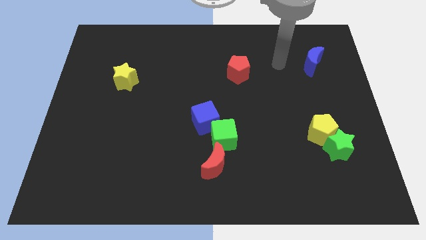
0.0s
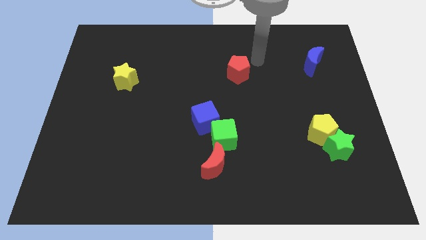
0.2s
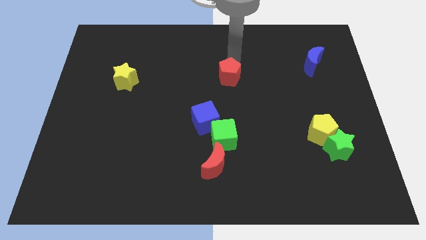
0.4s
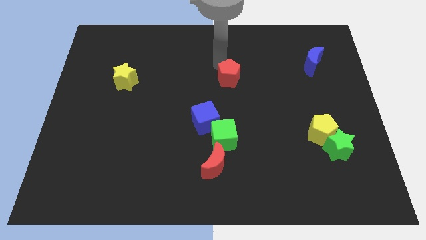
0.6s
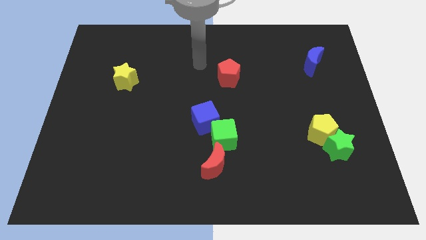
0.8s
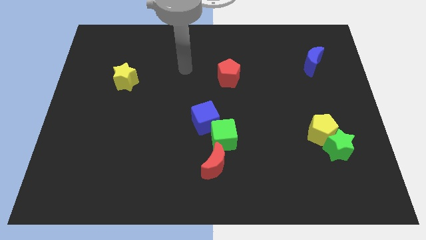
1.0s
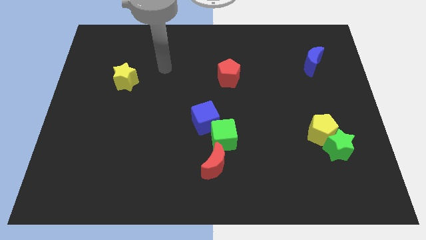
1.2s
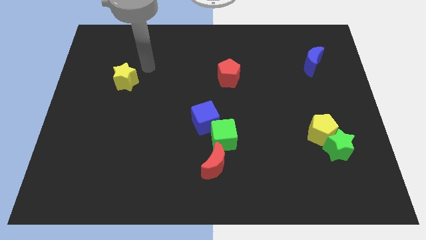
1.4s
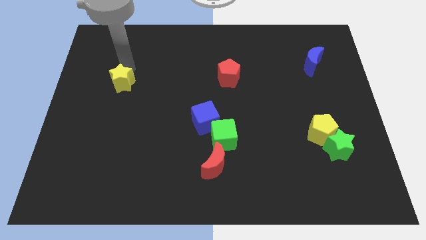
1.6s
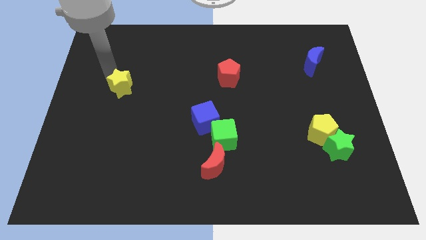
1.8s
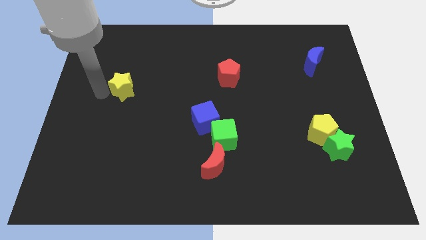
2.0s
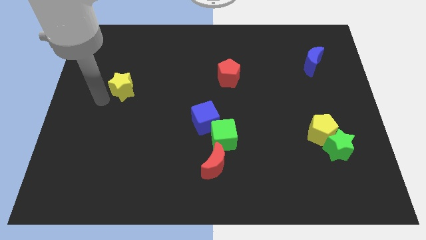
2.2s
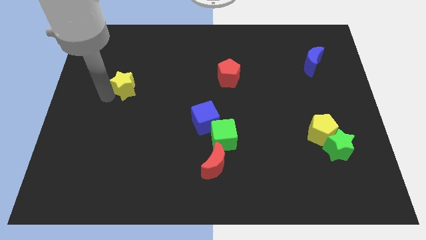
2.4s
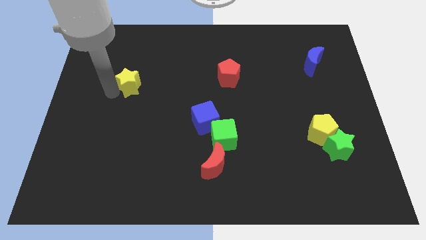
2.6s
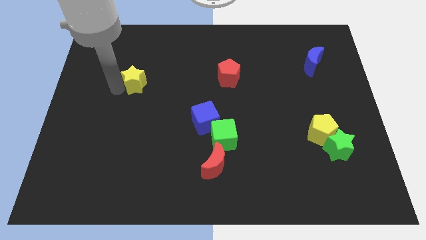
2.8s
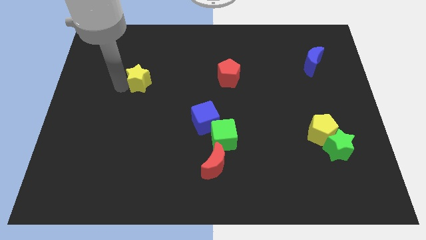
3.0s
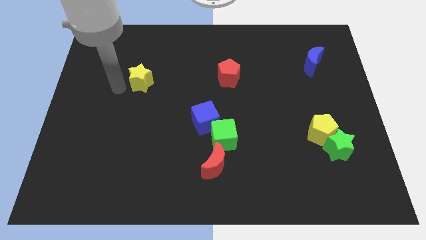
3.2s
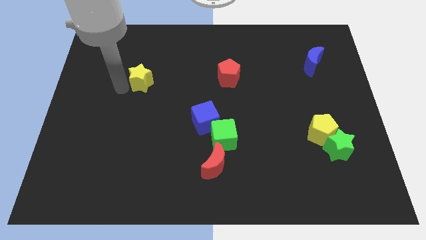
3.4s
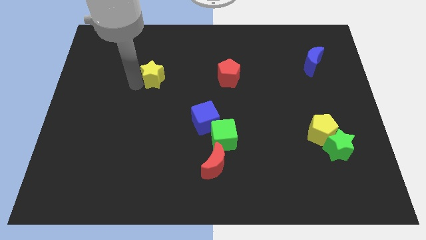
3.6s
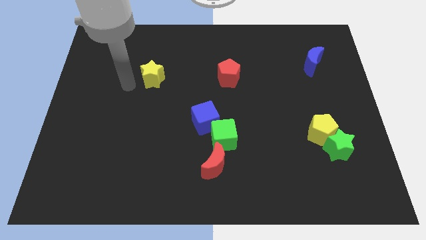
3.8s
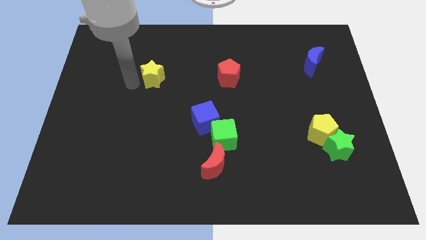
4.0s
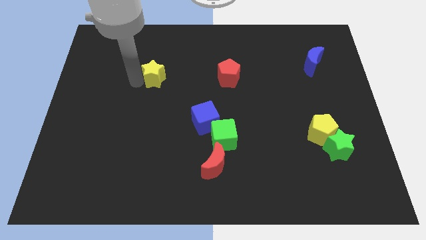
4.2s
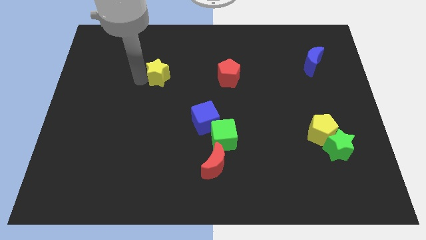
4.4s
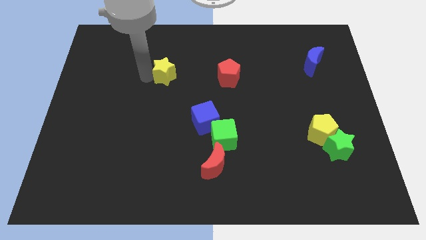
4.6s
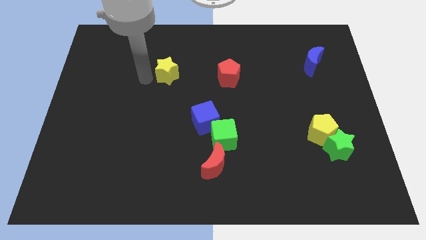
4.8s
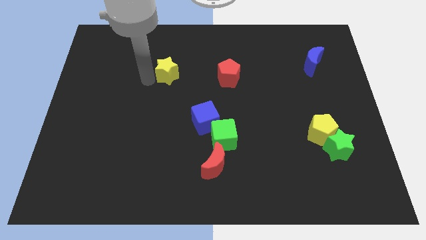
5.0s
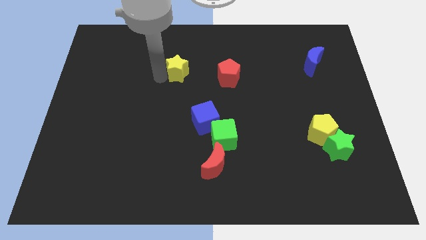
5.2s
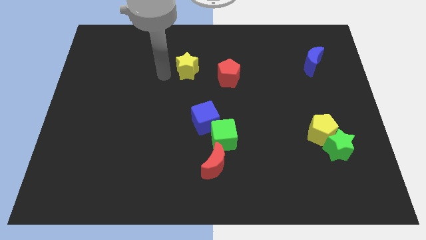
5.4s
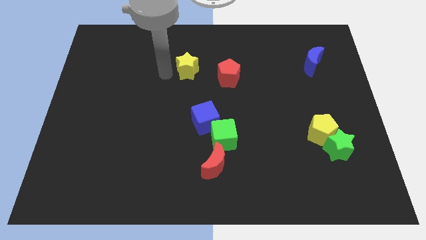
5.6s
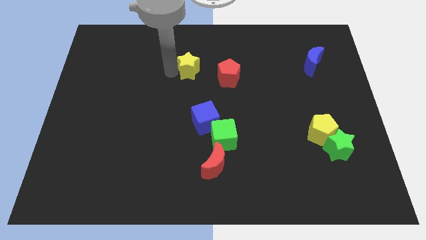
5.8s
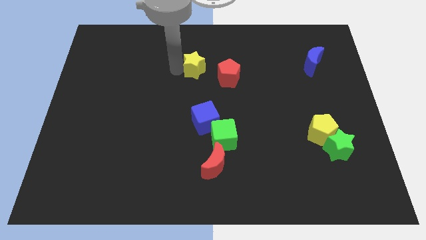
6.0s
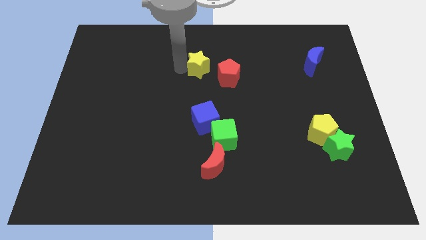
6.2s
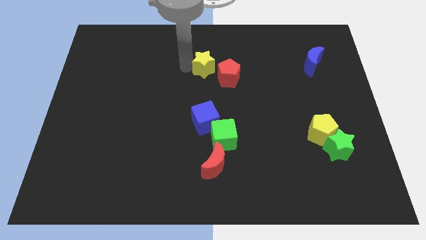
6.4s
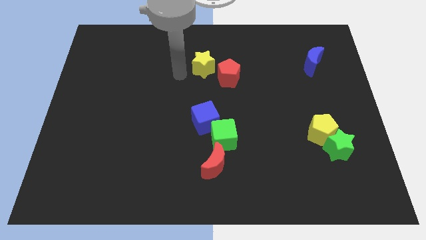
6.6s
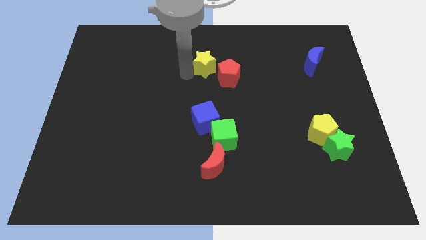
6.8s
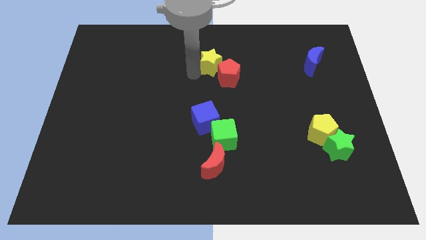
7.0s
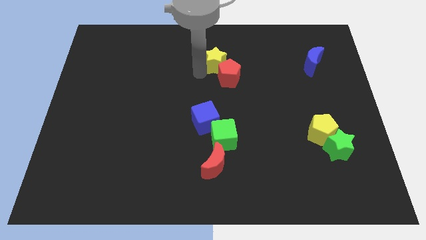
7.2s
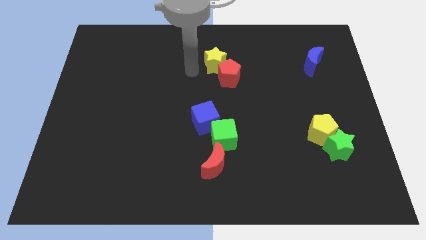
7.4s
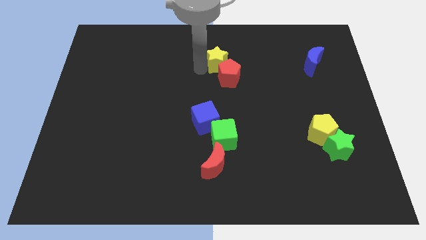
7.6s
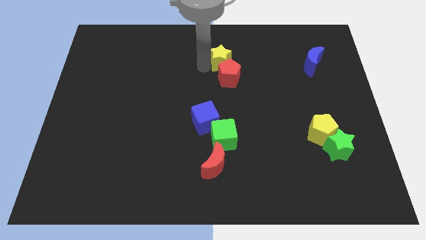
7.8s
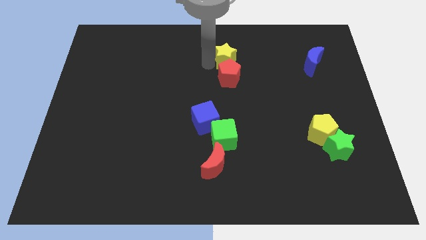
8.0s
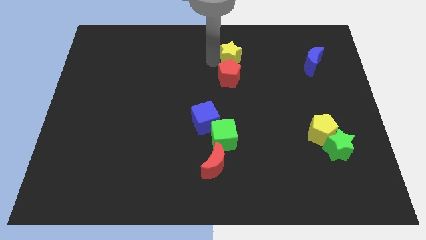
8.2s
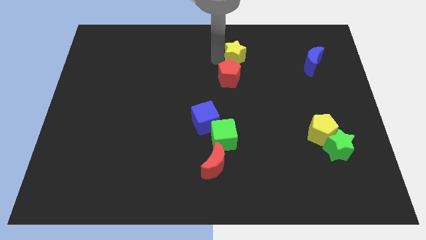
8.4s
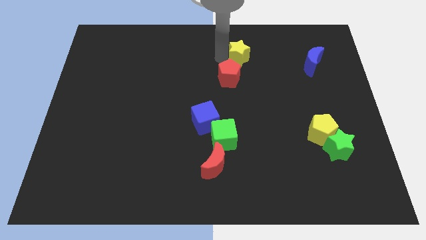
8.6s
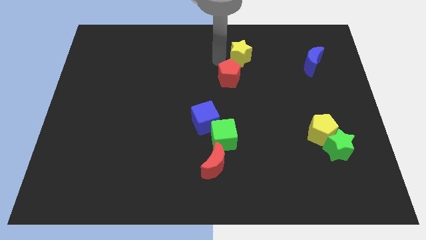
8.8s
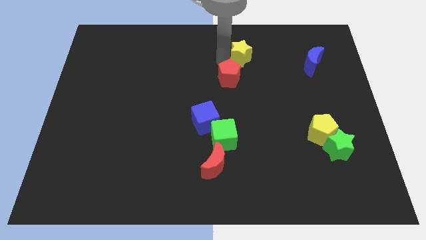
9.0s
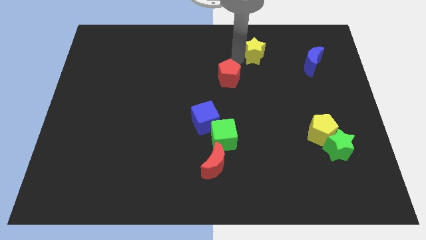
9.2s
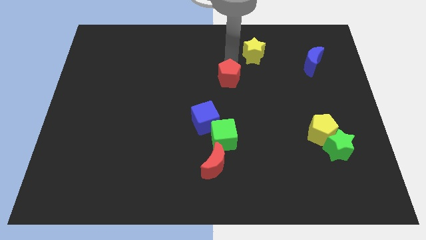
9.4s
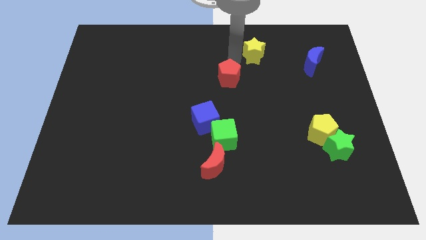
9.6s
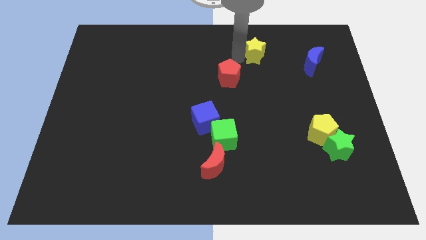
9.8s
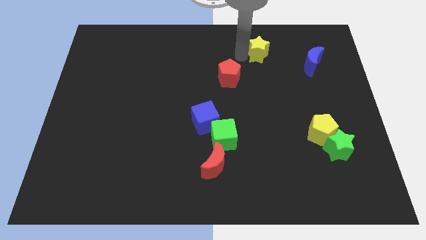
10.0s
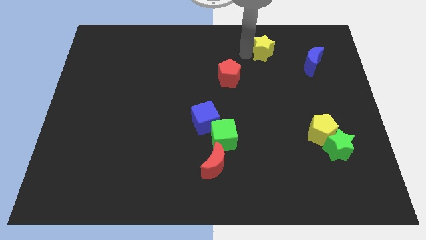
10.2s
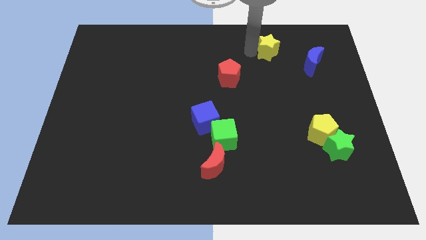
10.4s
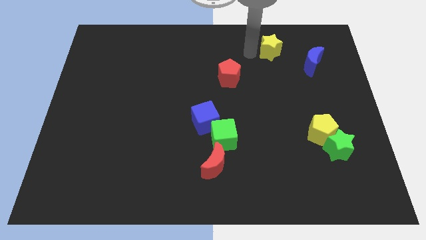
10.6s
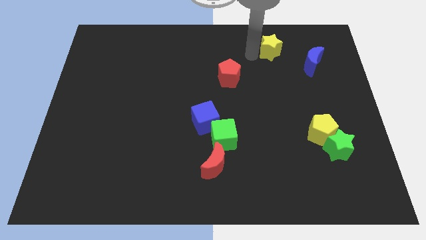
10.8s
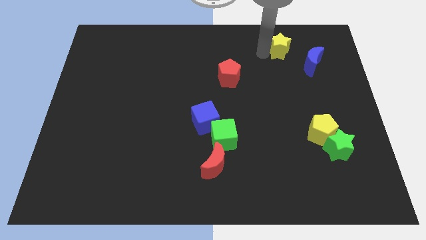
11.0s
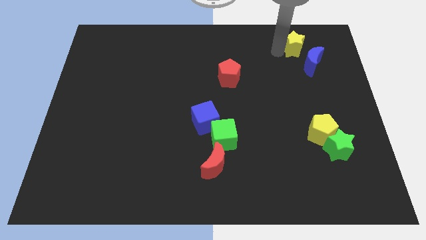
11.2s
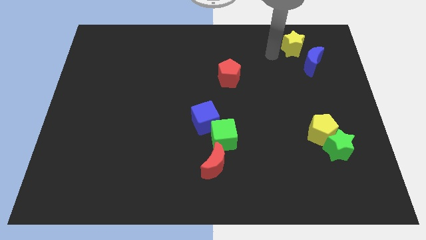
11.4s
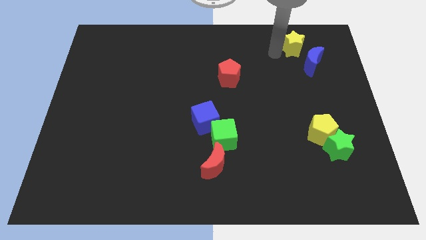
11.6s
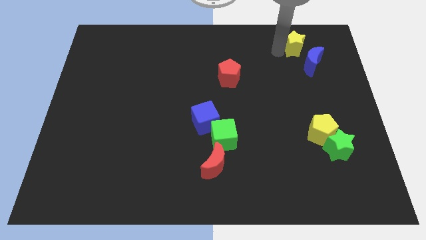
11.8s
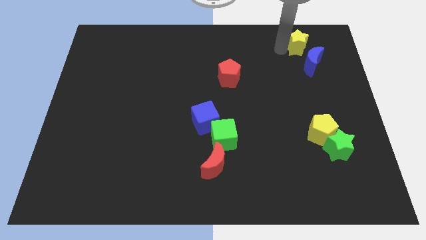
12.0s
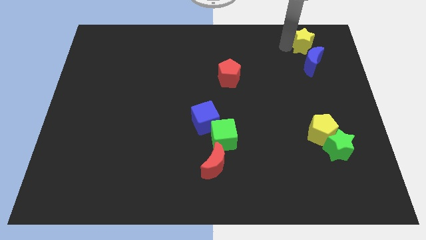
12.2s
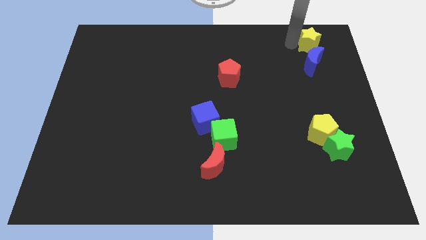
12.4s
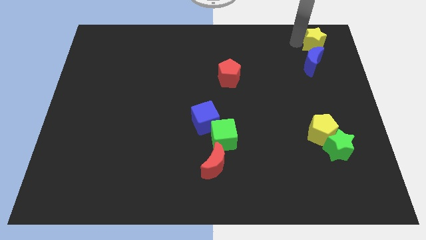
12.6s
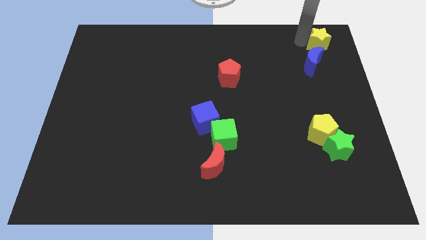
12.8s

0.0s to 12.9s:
push the yellow star to the upper right corner

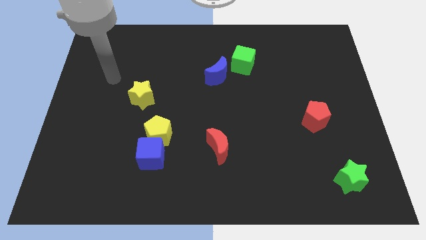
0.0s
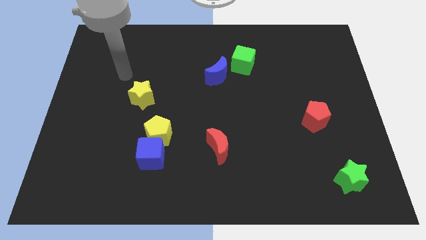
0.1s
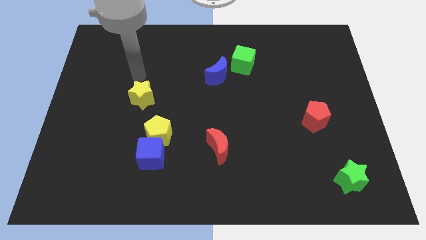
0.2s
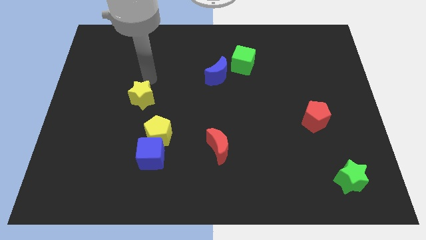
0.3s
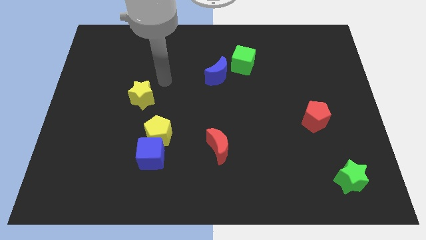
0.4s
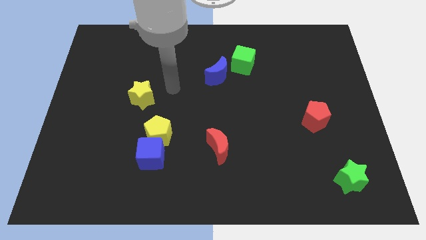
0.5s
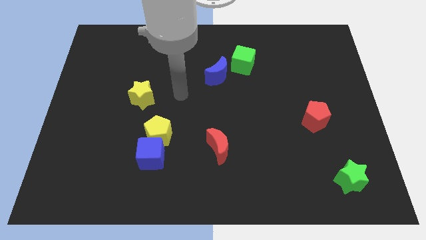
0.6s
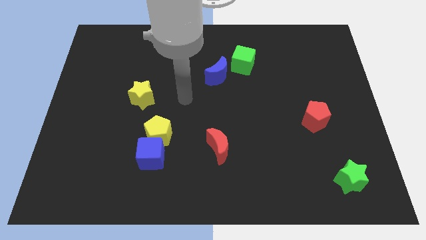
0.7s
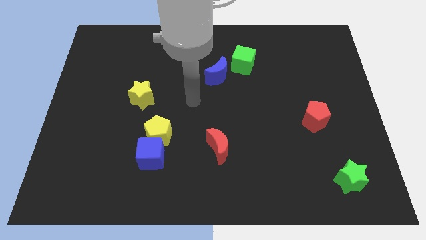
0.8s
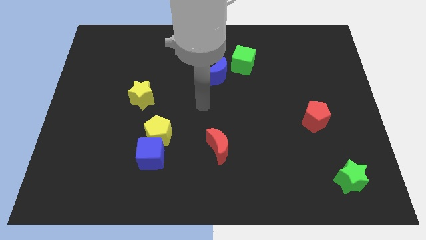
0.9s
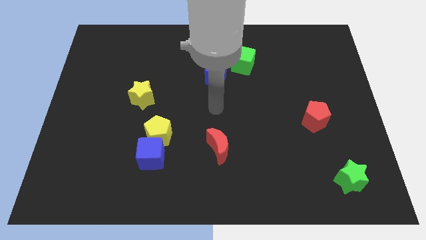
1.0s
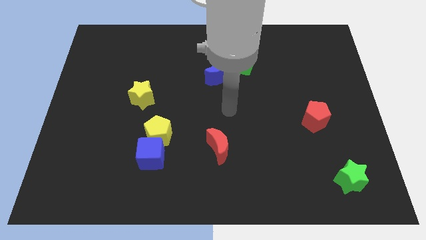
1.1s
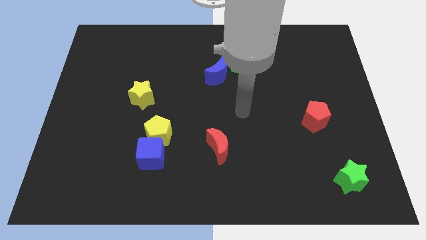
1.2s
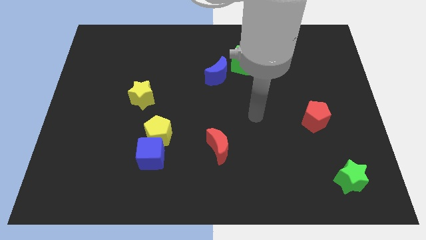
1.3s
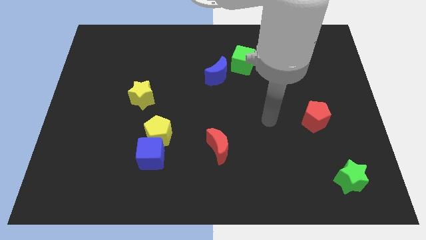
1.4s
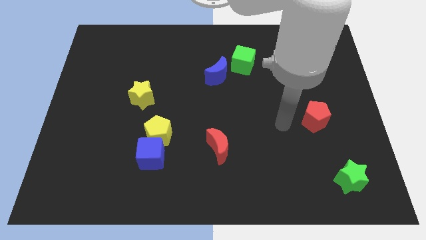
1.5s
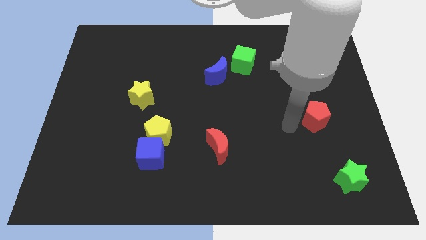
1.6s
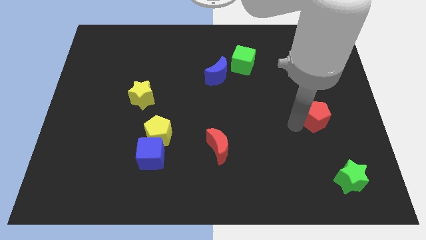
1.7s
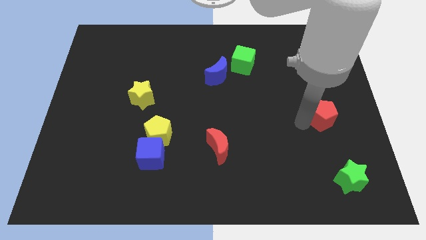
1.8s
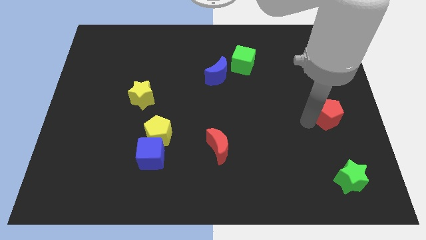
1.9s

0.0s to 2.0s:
push the red pentagon to the right side
